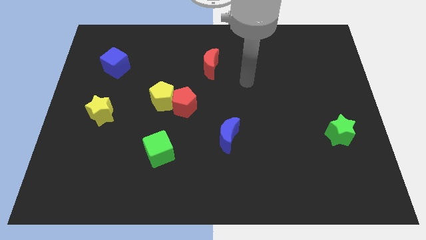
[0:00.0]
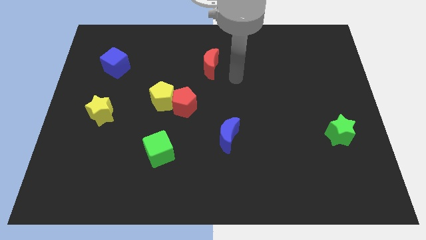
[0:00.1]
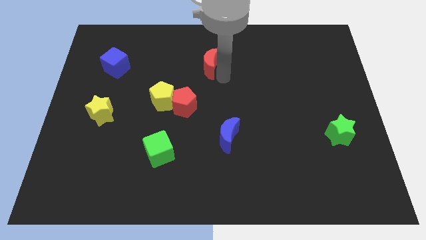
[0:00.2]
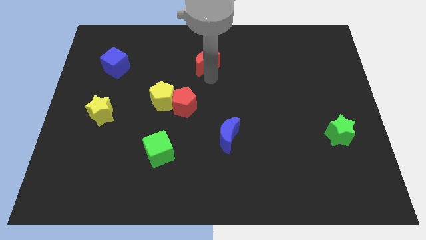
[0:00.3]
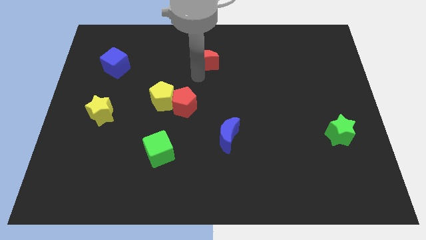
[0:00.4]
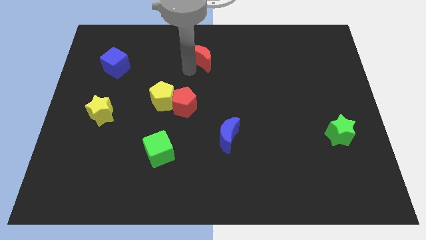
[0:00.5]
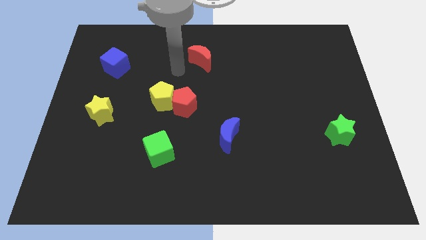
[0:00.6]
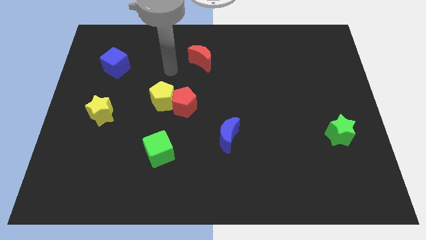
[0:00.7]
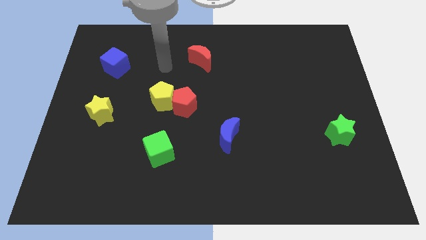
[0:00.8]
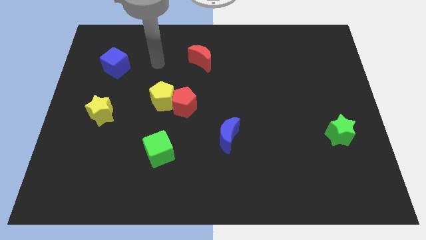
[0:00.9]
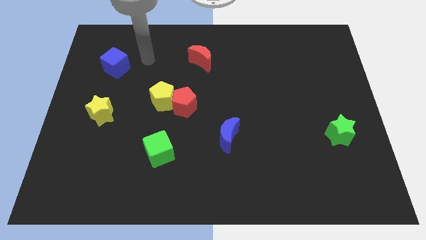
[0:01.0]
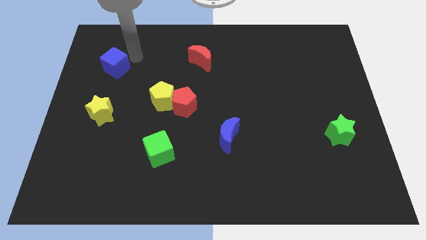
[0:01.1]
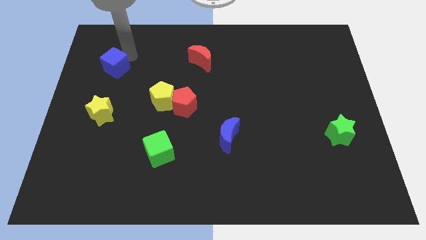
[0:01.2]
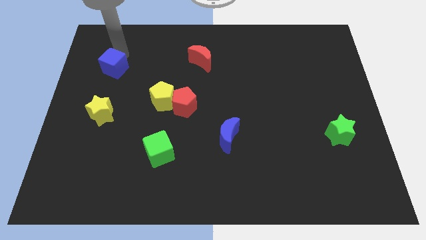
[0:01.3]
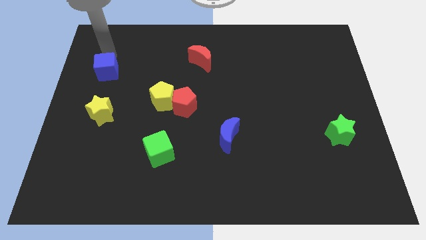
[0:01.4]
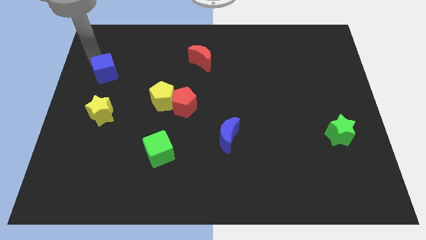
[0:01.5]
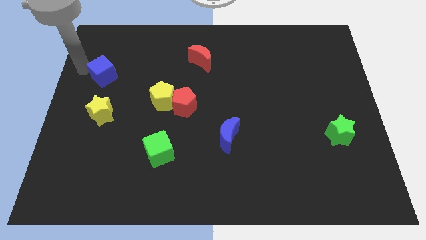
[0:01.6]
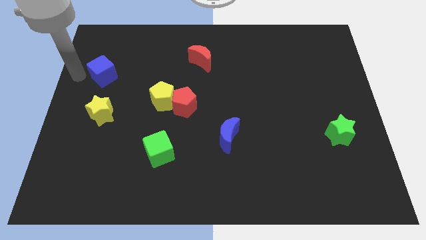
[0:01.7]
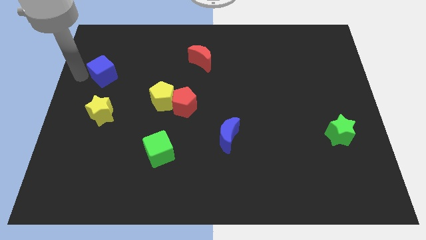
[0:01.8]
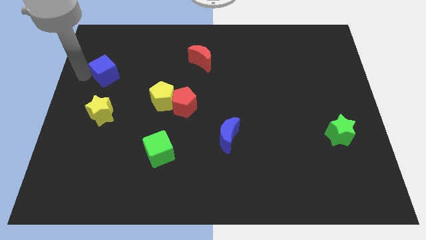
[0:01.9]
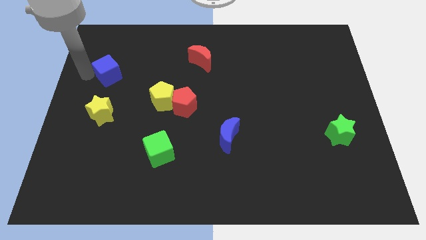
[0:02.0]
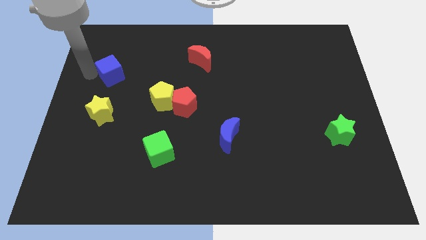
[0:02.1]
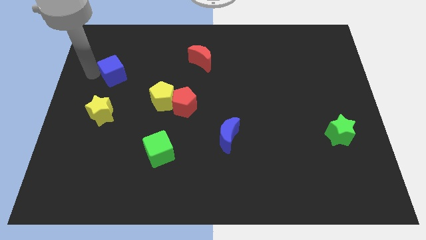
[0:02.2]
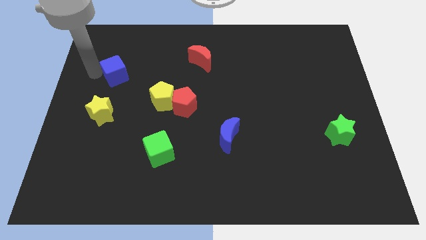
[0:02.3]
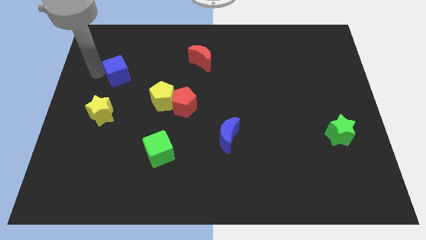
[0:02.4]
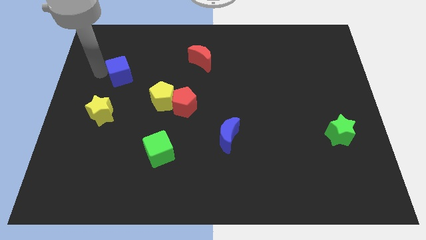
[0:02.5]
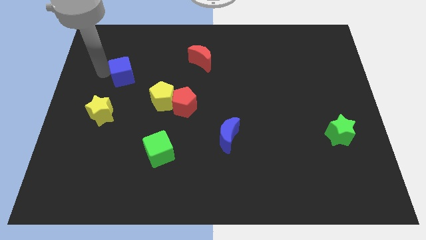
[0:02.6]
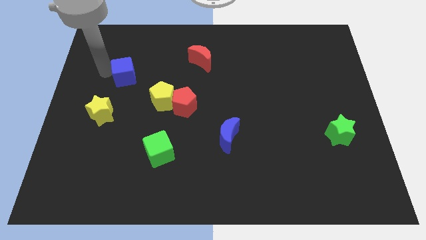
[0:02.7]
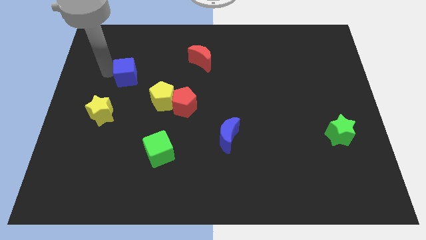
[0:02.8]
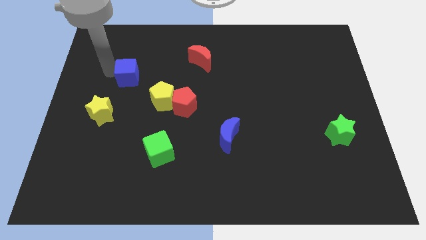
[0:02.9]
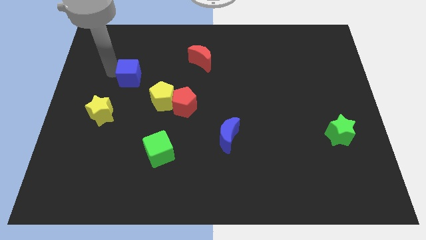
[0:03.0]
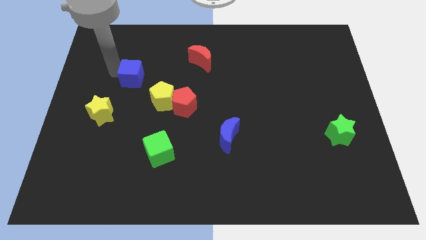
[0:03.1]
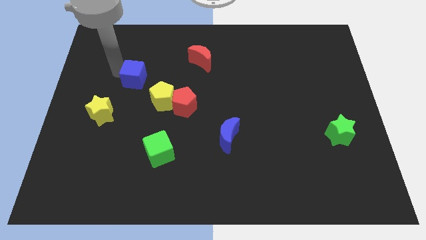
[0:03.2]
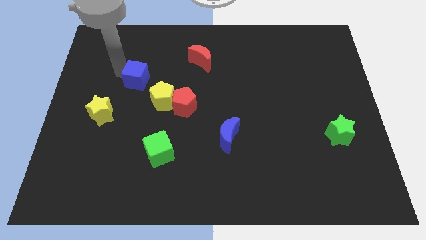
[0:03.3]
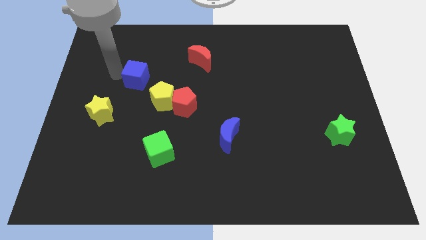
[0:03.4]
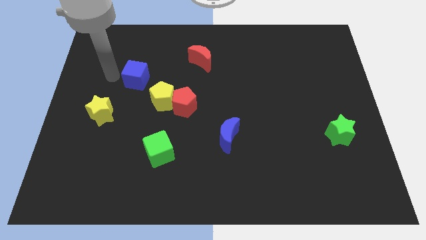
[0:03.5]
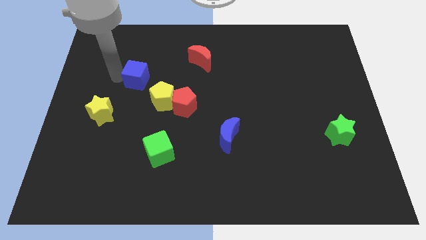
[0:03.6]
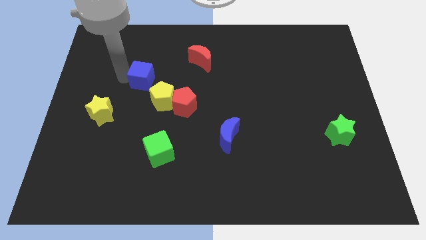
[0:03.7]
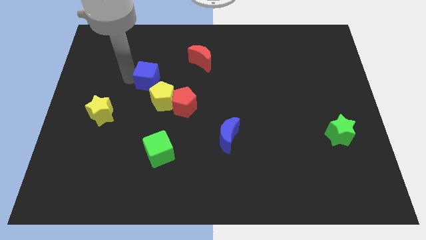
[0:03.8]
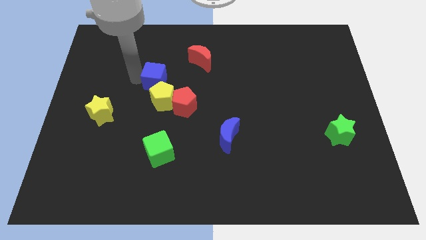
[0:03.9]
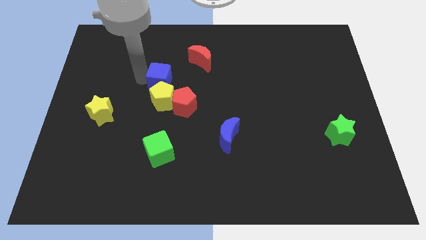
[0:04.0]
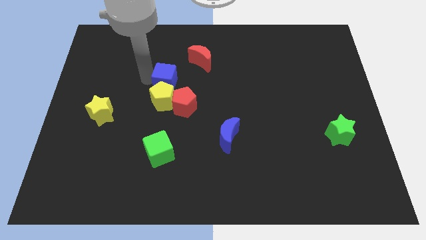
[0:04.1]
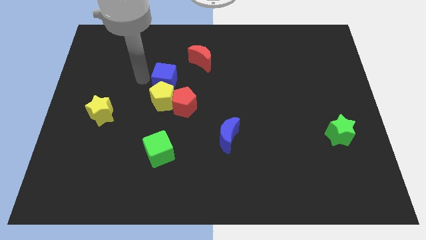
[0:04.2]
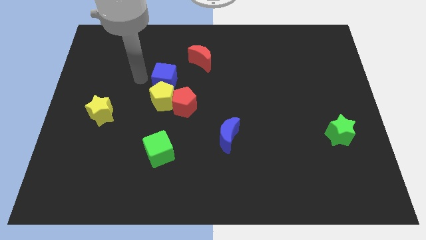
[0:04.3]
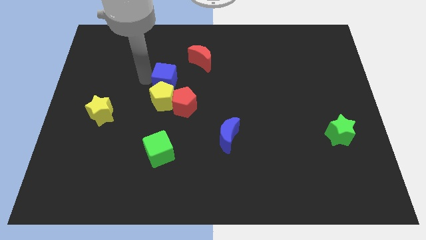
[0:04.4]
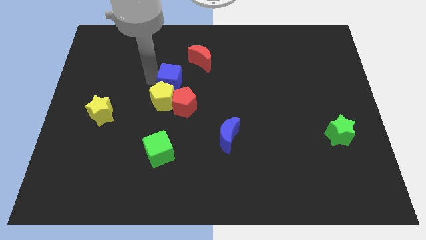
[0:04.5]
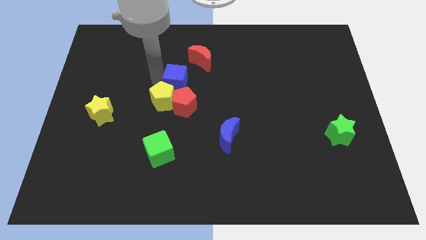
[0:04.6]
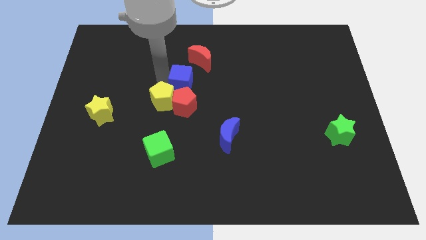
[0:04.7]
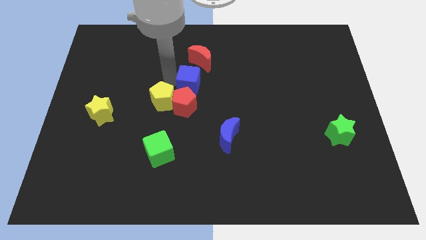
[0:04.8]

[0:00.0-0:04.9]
put the blue cube diagonally up and to the right of the red pentagon

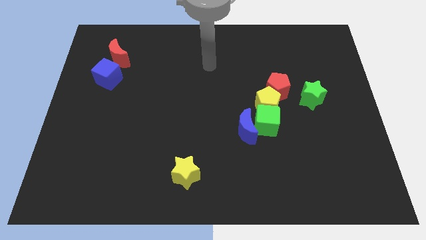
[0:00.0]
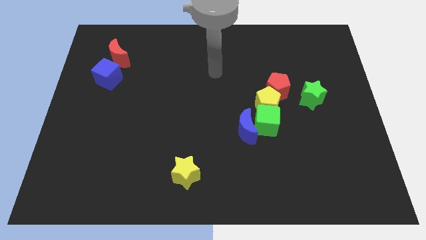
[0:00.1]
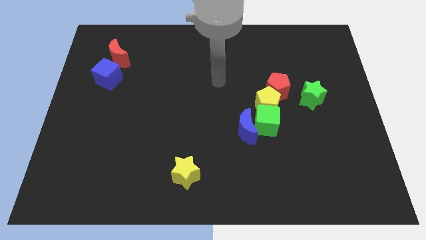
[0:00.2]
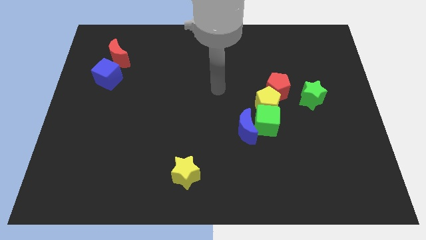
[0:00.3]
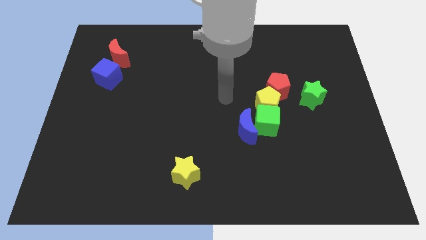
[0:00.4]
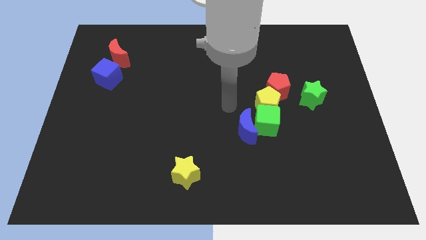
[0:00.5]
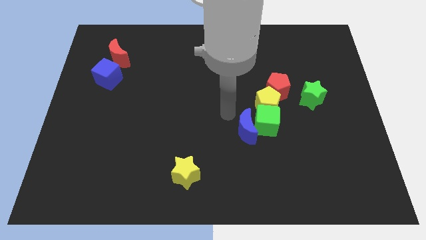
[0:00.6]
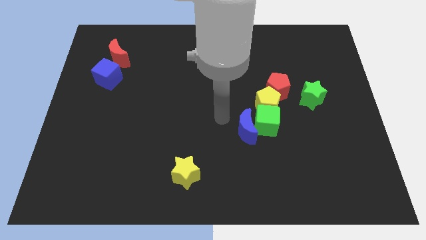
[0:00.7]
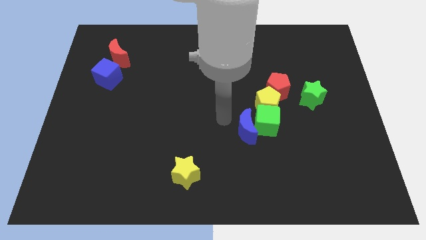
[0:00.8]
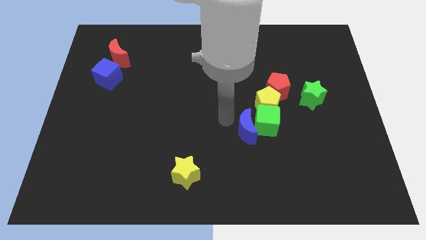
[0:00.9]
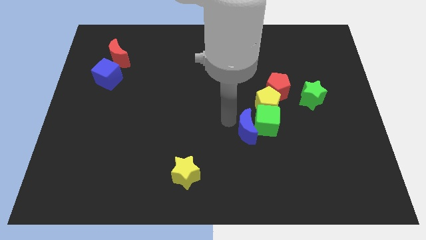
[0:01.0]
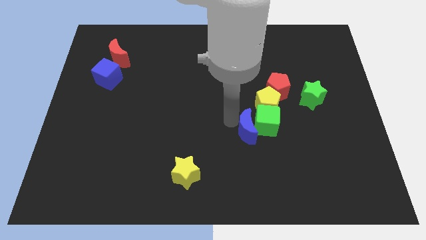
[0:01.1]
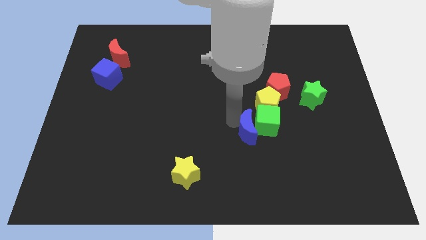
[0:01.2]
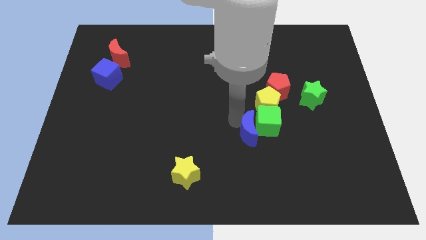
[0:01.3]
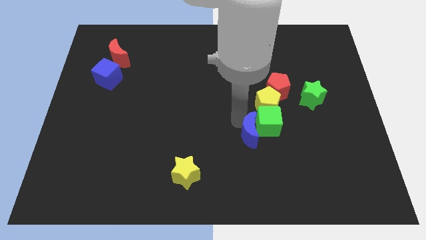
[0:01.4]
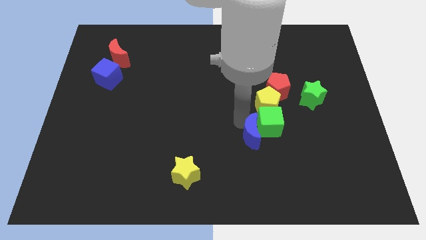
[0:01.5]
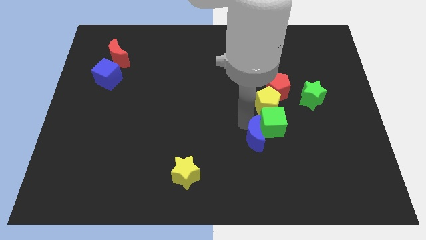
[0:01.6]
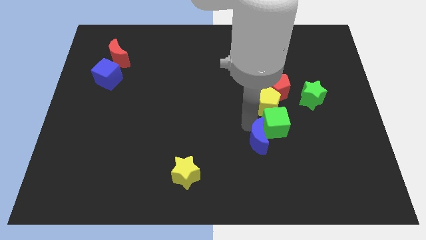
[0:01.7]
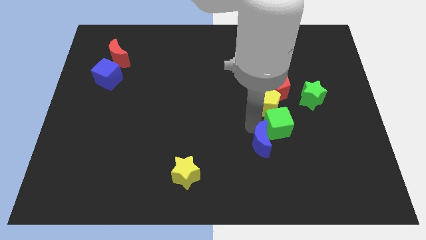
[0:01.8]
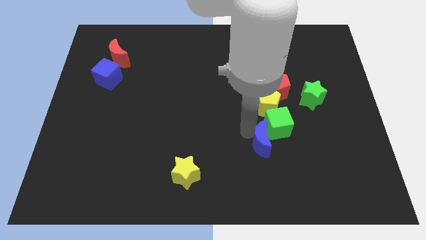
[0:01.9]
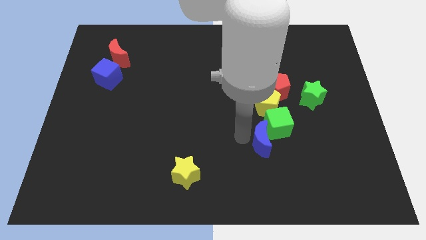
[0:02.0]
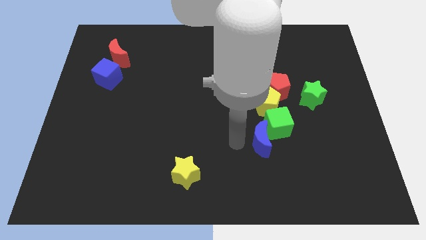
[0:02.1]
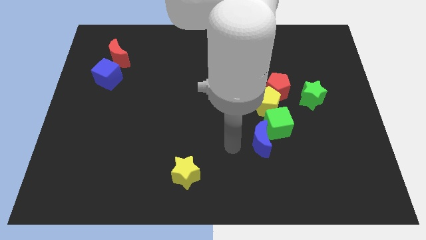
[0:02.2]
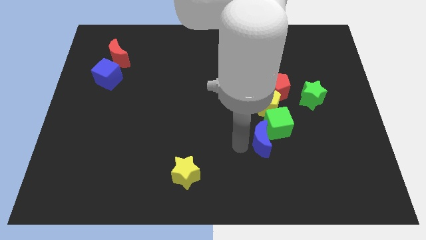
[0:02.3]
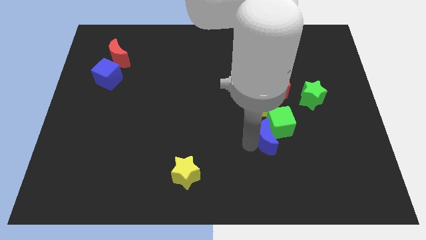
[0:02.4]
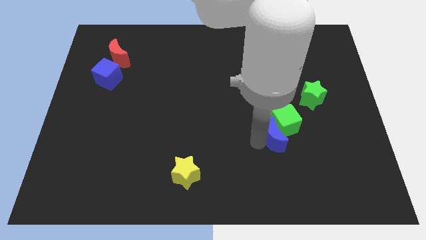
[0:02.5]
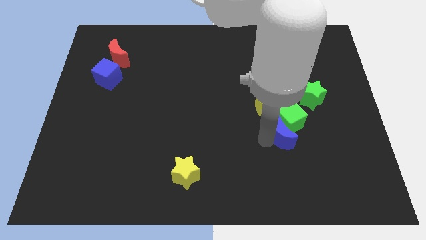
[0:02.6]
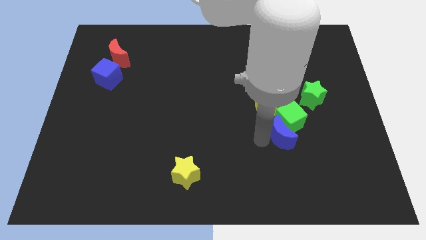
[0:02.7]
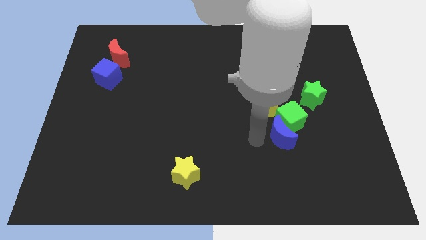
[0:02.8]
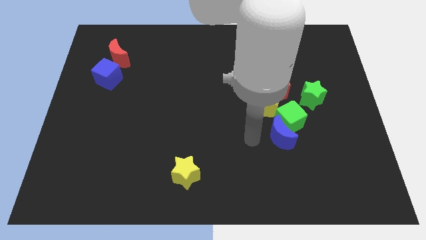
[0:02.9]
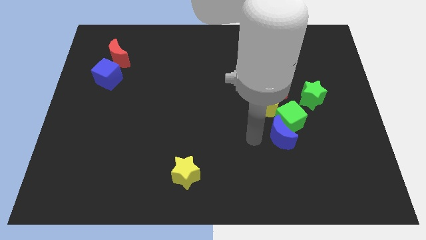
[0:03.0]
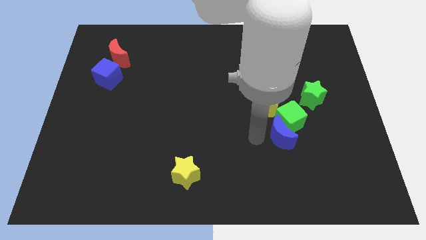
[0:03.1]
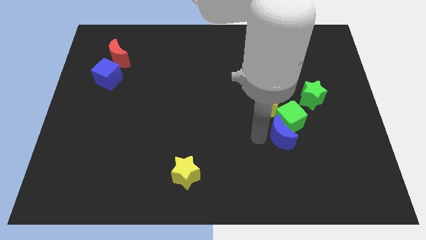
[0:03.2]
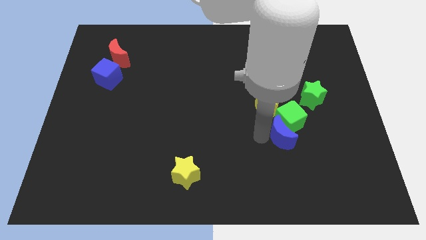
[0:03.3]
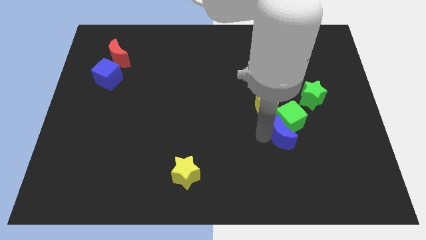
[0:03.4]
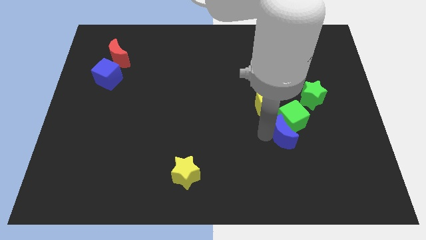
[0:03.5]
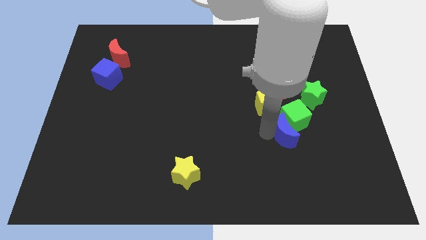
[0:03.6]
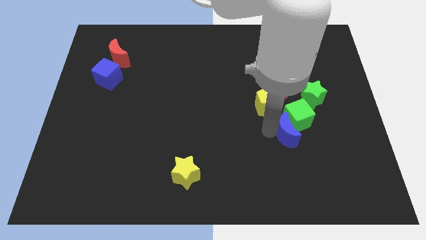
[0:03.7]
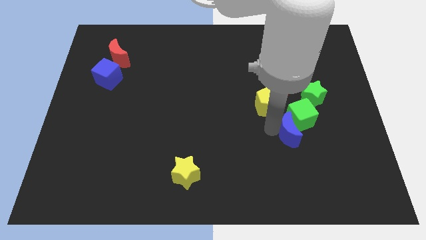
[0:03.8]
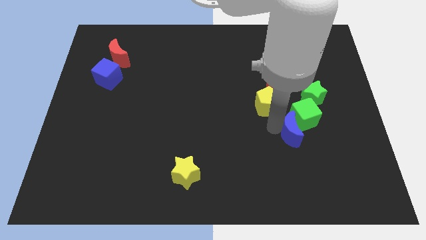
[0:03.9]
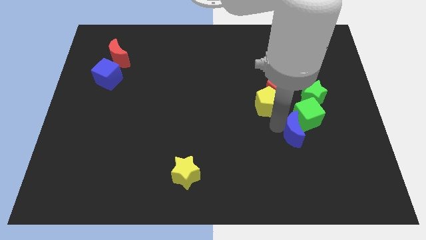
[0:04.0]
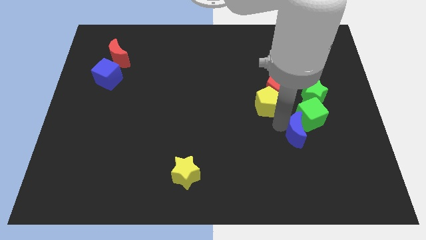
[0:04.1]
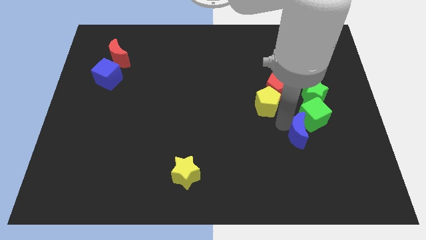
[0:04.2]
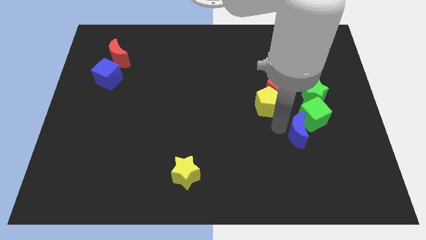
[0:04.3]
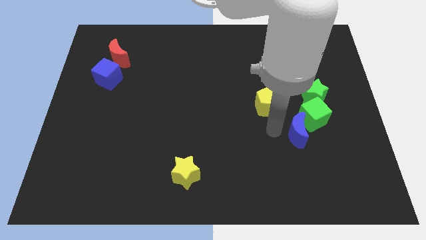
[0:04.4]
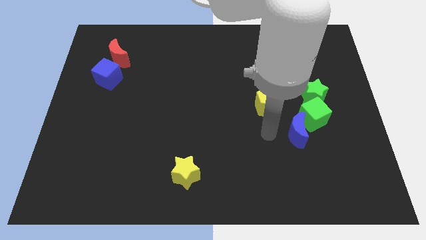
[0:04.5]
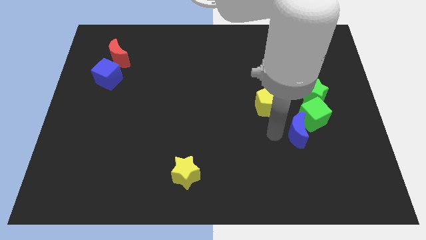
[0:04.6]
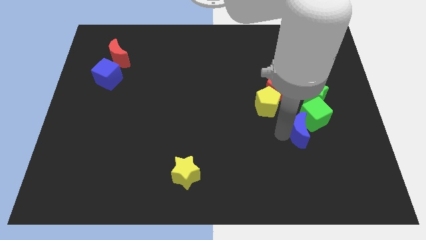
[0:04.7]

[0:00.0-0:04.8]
push the blue moon to the bottom side of the green star
